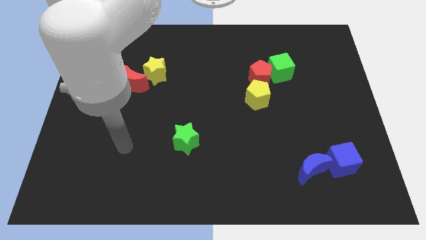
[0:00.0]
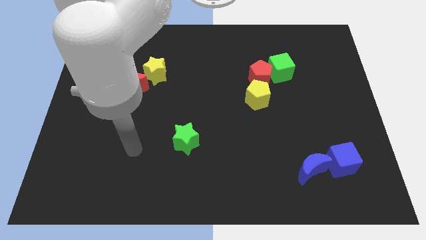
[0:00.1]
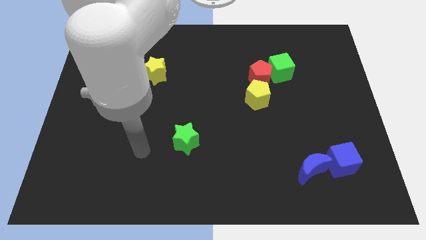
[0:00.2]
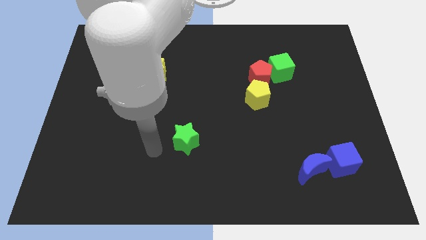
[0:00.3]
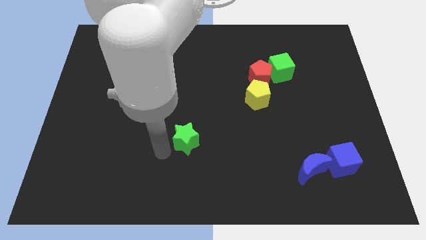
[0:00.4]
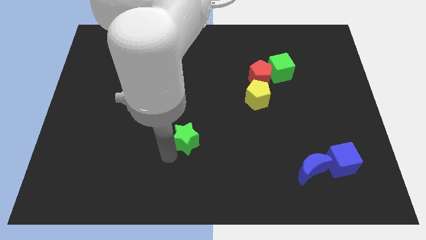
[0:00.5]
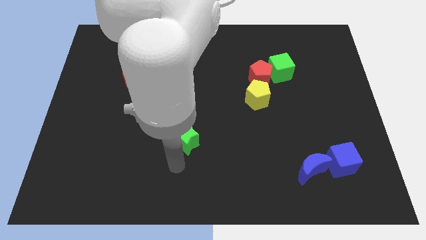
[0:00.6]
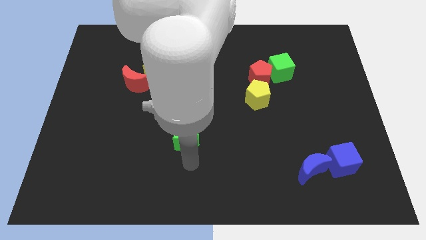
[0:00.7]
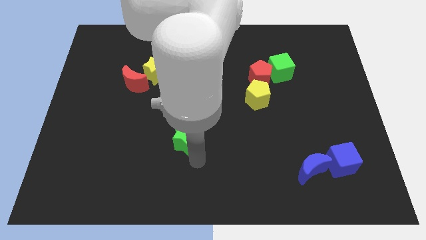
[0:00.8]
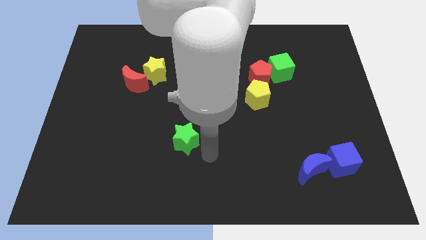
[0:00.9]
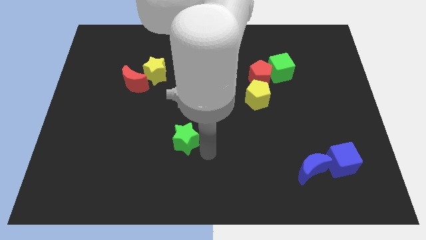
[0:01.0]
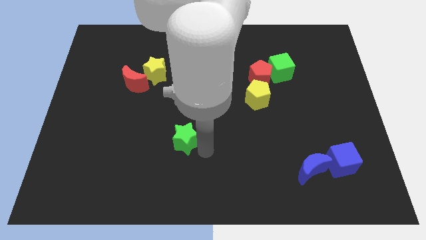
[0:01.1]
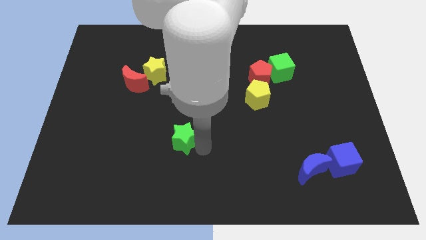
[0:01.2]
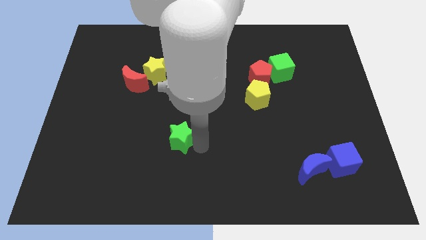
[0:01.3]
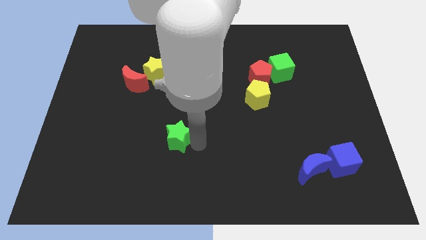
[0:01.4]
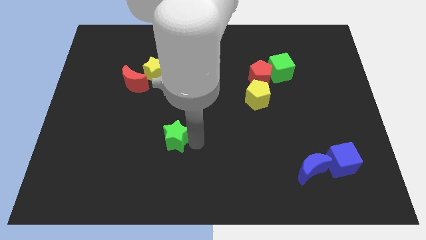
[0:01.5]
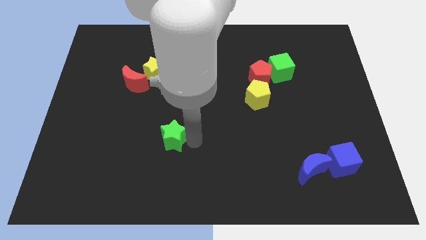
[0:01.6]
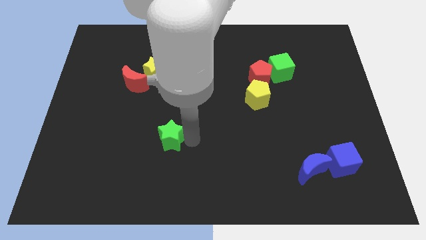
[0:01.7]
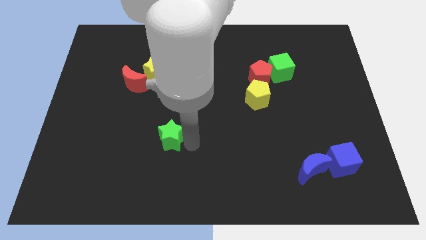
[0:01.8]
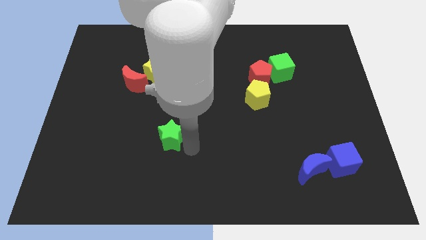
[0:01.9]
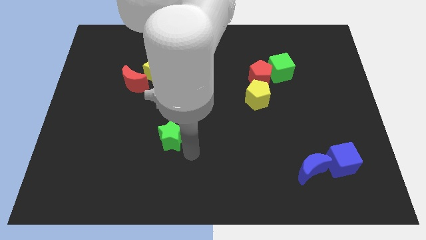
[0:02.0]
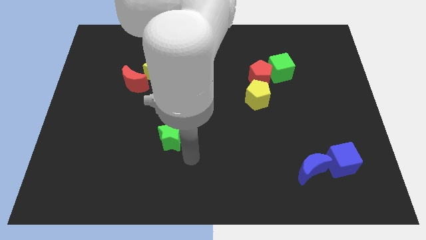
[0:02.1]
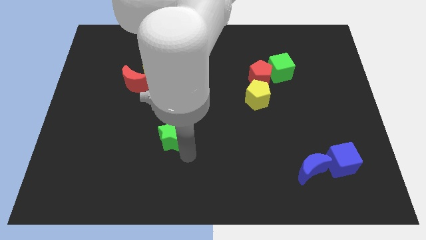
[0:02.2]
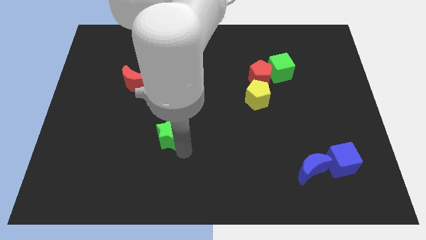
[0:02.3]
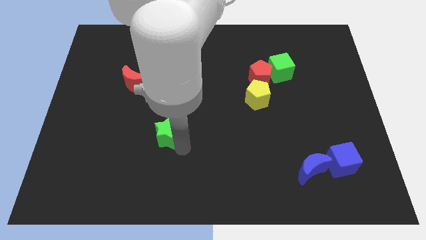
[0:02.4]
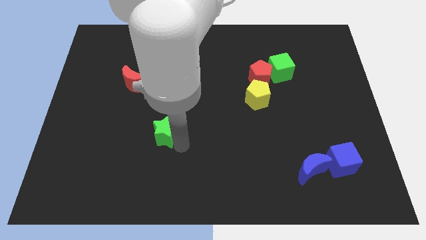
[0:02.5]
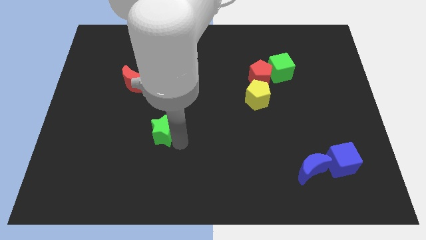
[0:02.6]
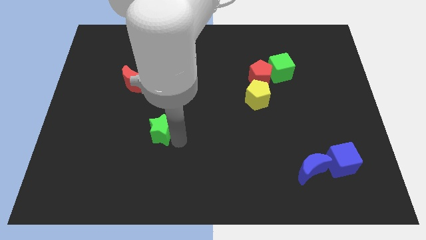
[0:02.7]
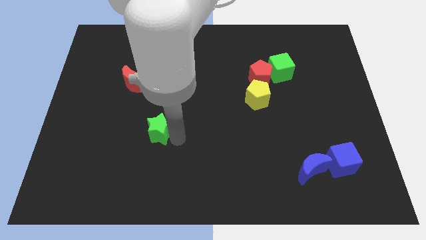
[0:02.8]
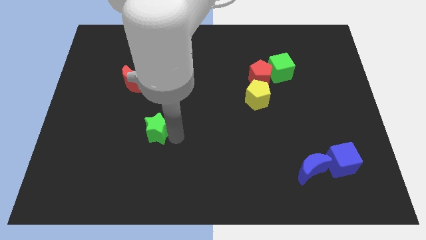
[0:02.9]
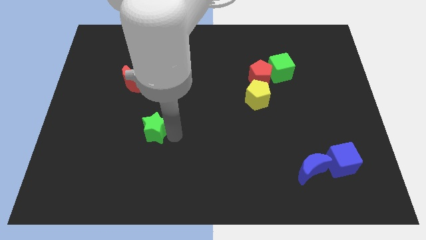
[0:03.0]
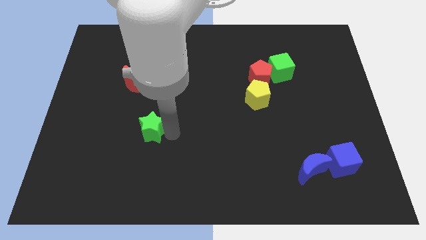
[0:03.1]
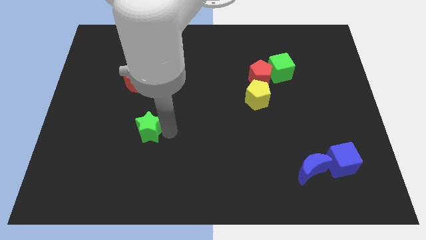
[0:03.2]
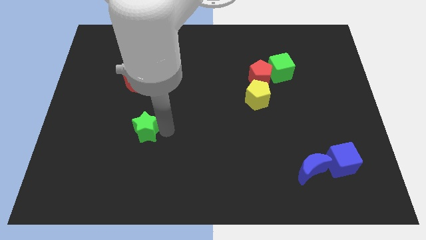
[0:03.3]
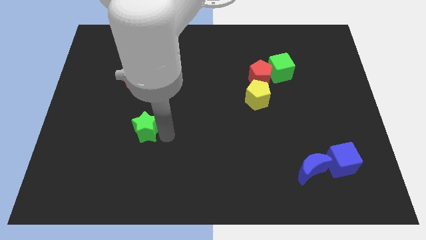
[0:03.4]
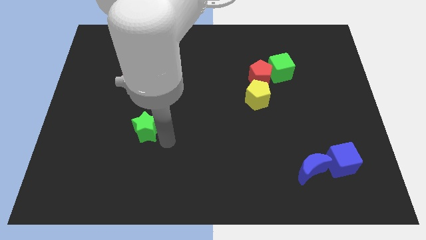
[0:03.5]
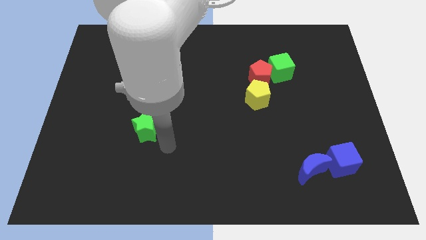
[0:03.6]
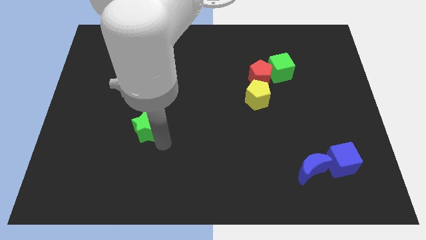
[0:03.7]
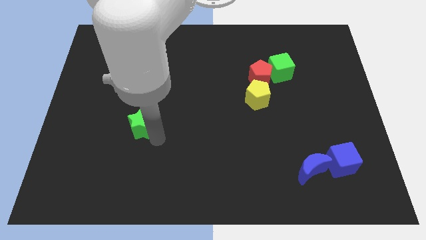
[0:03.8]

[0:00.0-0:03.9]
push the green star to the bottom side of the red moon

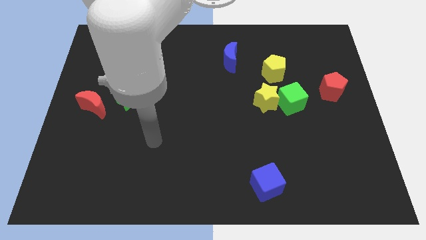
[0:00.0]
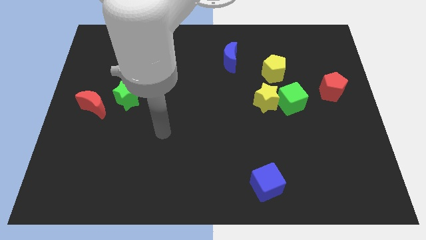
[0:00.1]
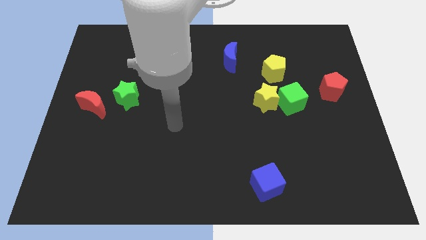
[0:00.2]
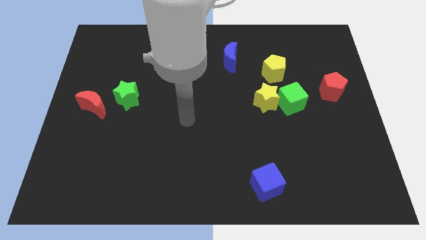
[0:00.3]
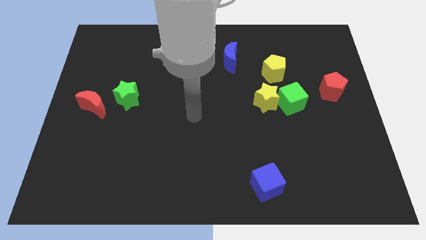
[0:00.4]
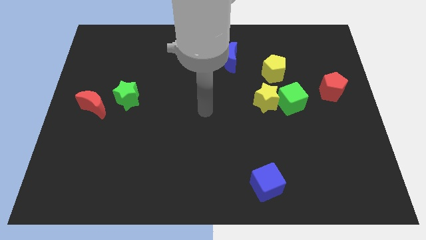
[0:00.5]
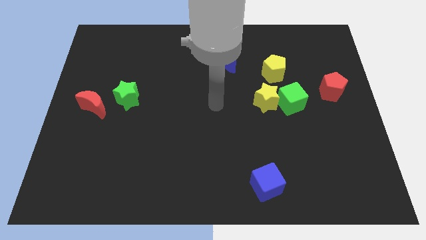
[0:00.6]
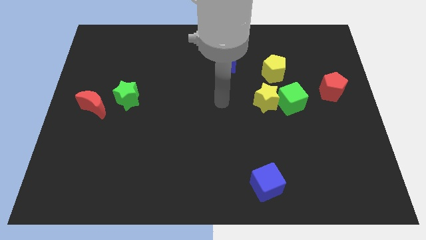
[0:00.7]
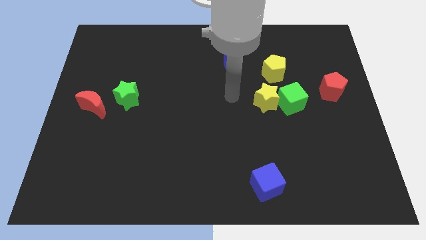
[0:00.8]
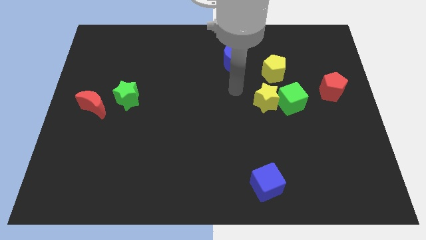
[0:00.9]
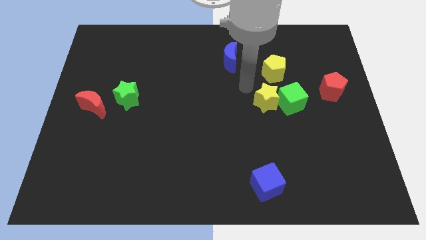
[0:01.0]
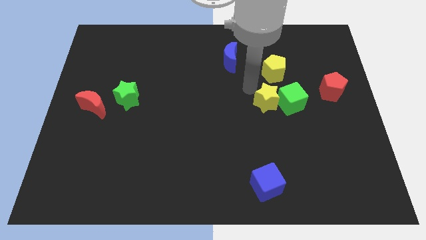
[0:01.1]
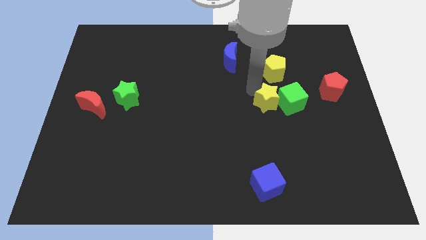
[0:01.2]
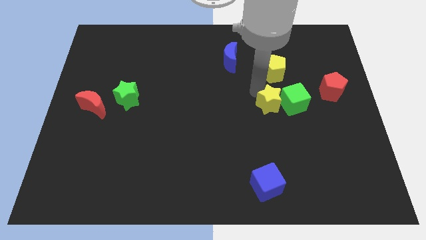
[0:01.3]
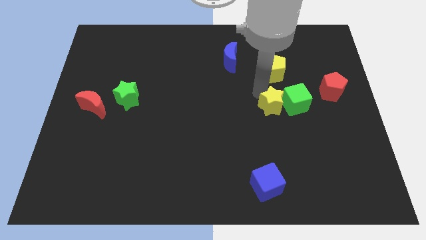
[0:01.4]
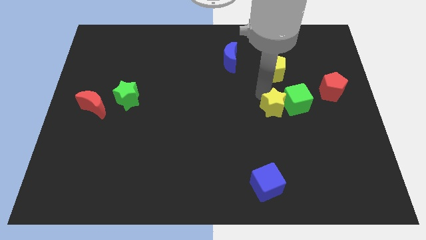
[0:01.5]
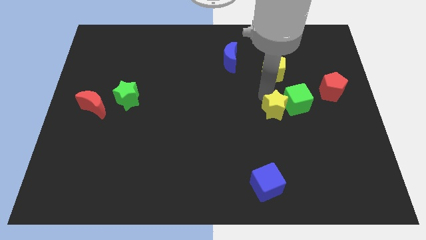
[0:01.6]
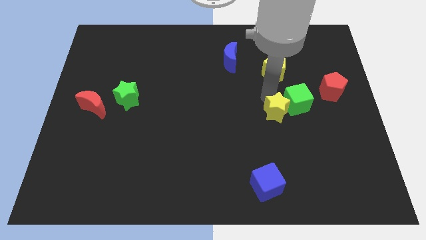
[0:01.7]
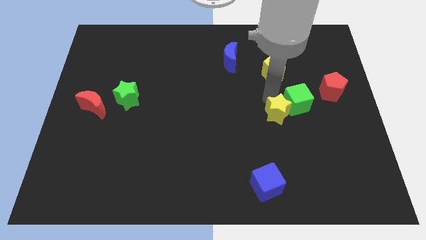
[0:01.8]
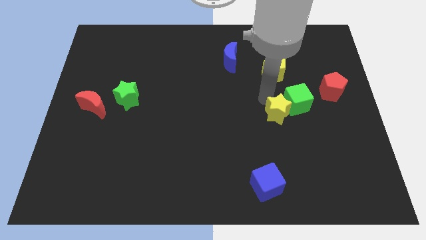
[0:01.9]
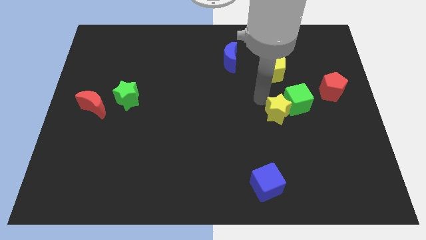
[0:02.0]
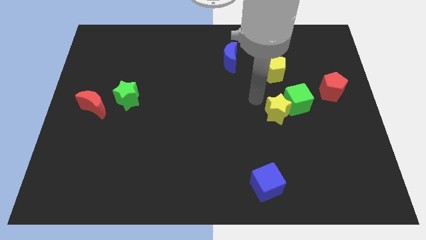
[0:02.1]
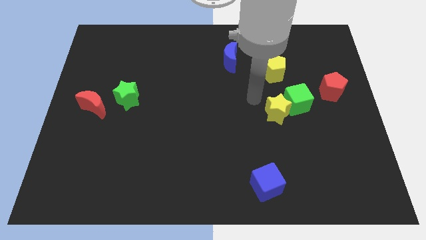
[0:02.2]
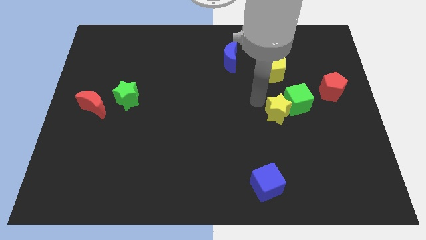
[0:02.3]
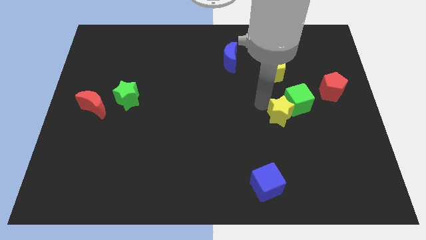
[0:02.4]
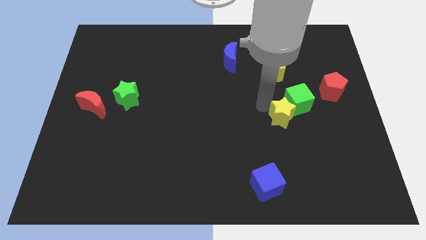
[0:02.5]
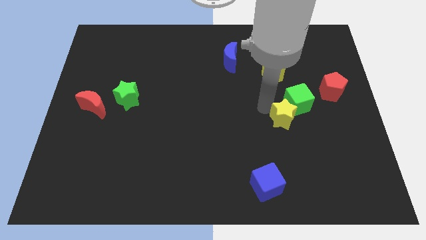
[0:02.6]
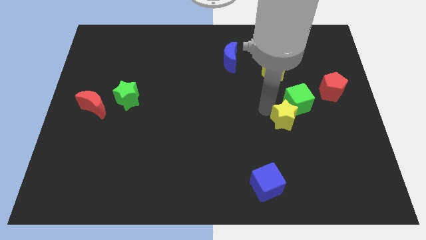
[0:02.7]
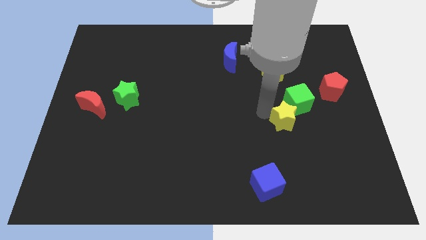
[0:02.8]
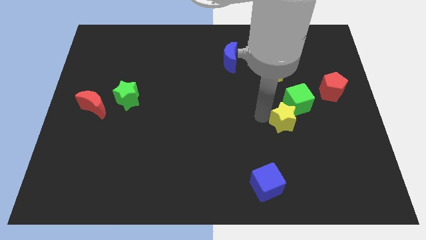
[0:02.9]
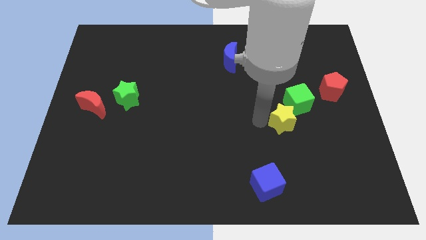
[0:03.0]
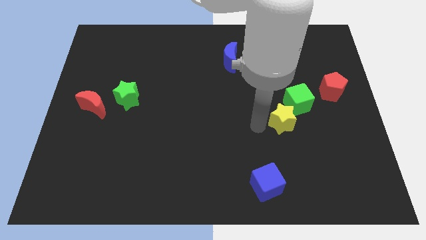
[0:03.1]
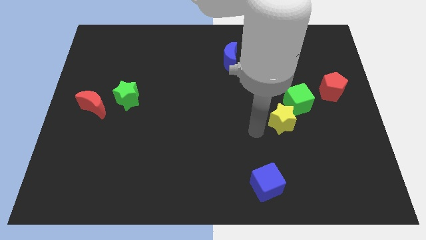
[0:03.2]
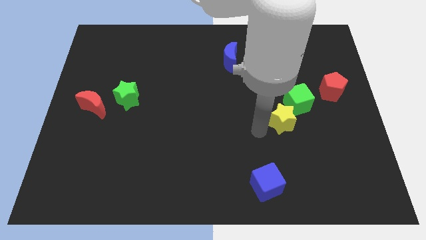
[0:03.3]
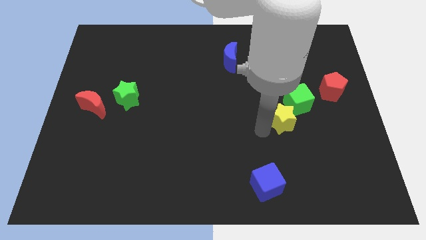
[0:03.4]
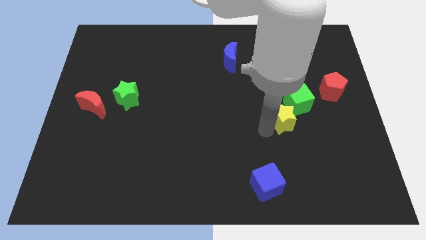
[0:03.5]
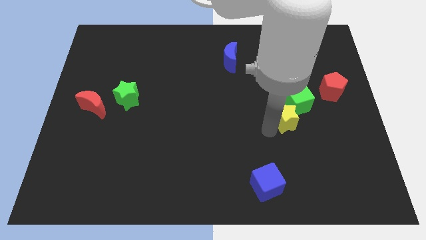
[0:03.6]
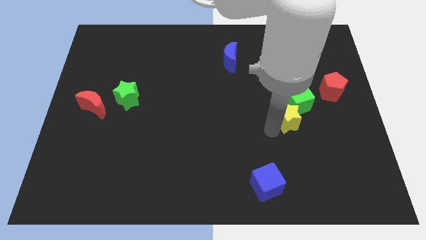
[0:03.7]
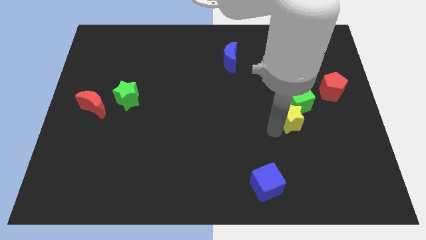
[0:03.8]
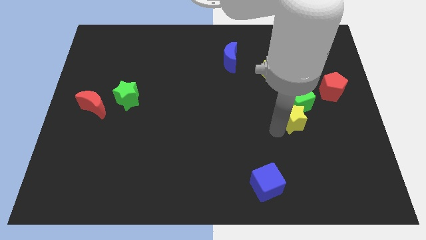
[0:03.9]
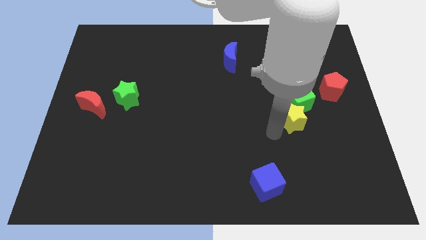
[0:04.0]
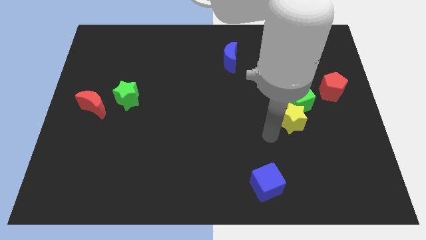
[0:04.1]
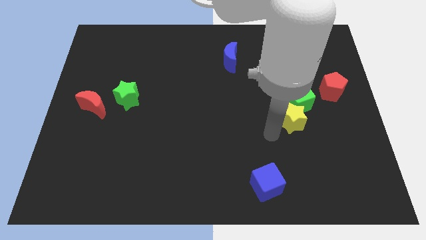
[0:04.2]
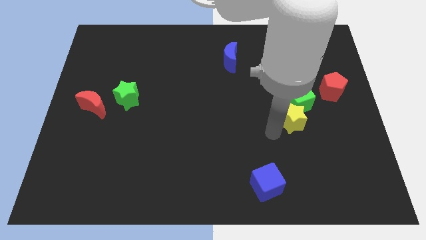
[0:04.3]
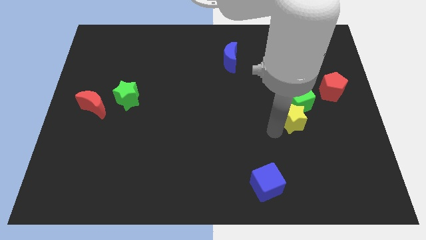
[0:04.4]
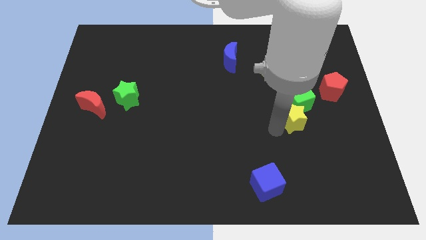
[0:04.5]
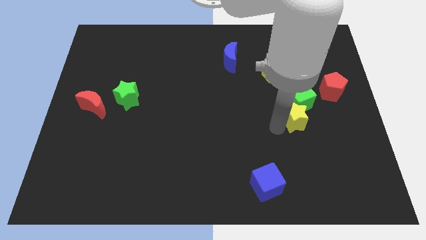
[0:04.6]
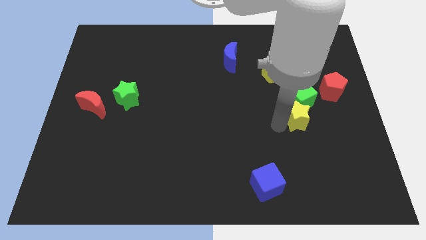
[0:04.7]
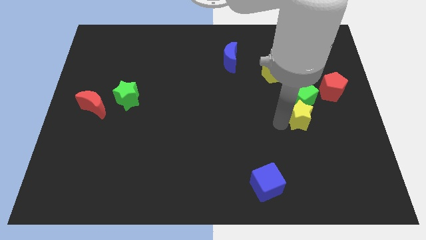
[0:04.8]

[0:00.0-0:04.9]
slide the yellow star diagonally down and to the left of the red pentagon
